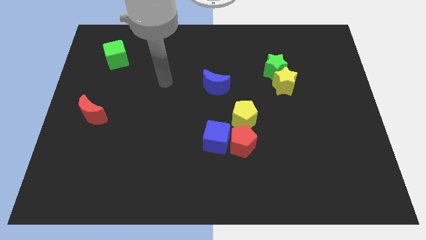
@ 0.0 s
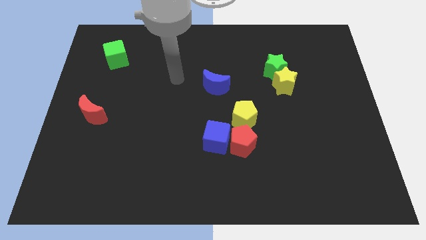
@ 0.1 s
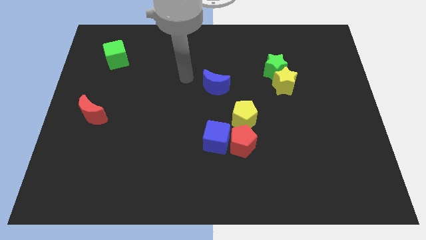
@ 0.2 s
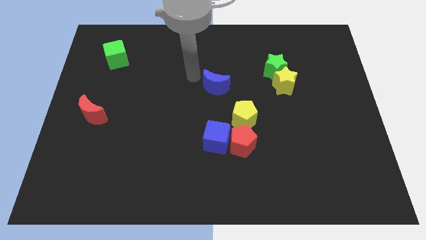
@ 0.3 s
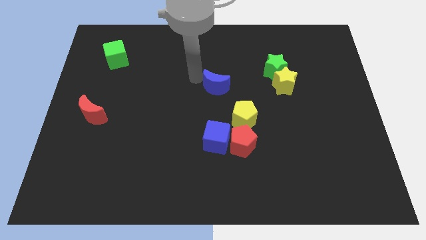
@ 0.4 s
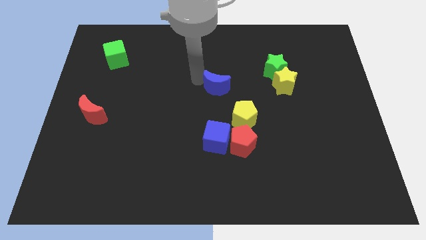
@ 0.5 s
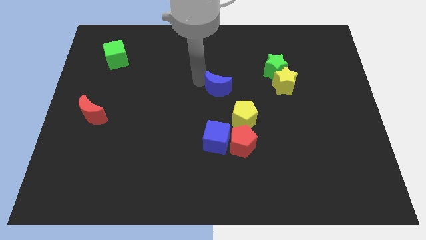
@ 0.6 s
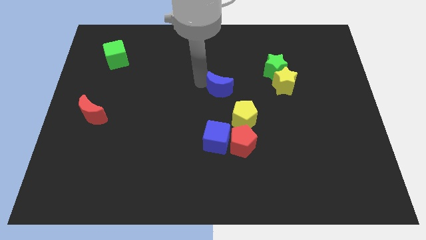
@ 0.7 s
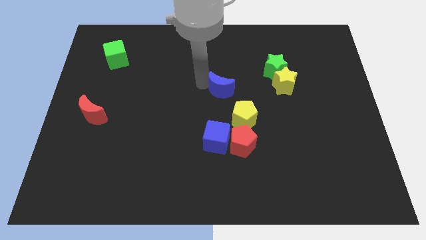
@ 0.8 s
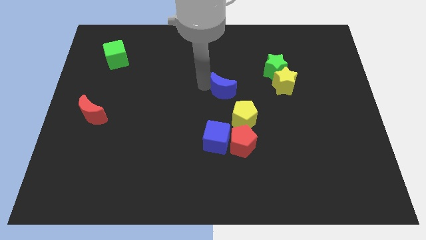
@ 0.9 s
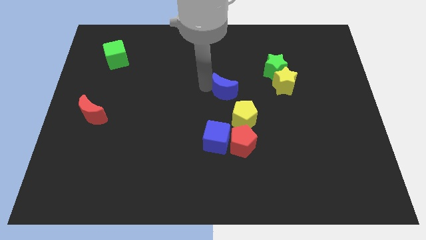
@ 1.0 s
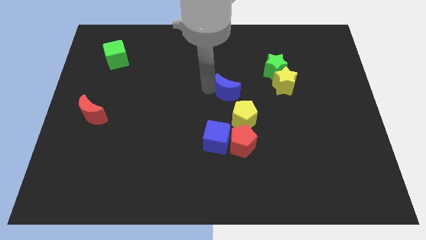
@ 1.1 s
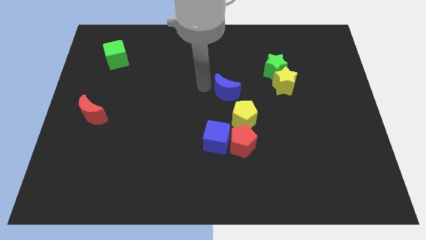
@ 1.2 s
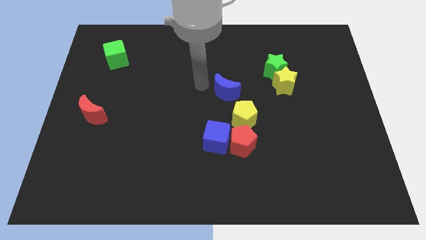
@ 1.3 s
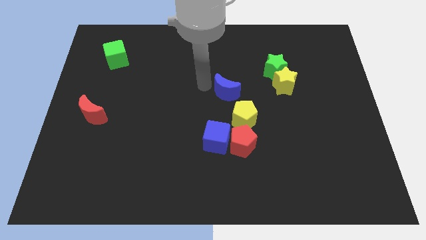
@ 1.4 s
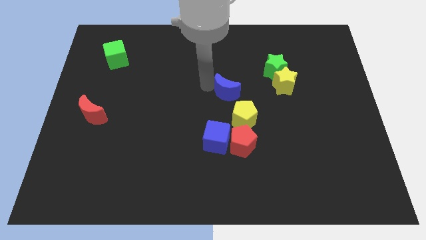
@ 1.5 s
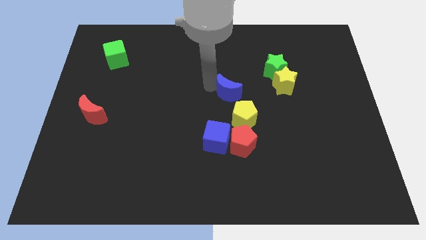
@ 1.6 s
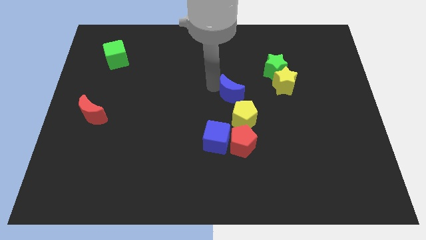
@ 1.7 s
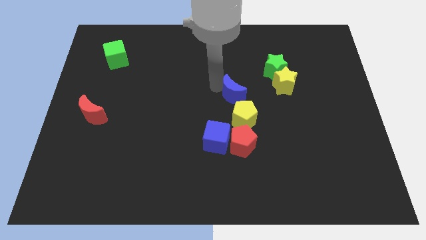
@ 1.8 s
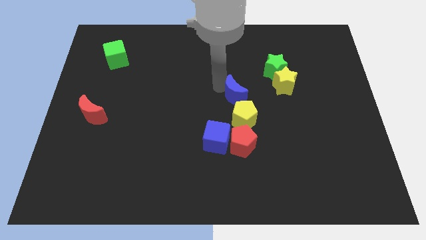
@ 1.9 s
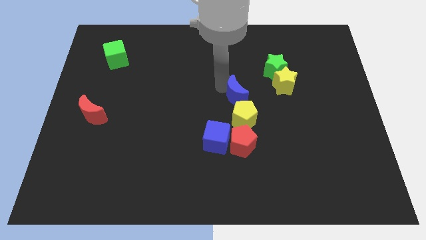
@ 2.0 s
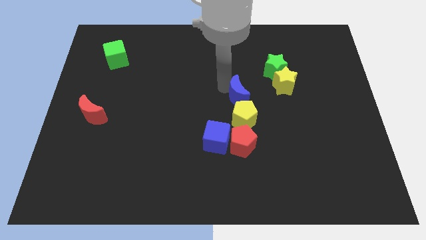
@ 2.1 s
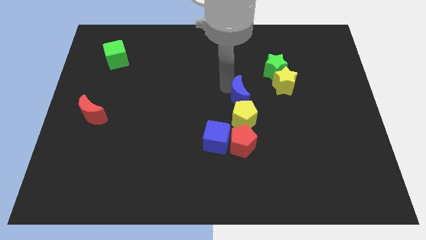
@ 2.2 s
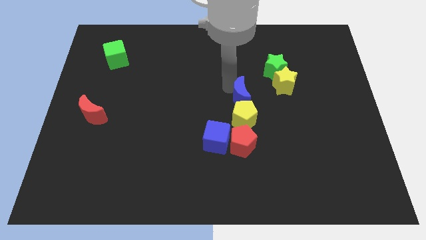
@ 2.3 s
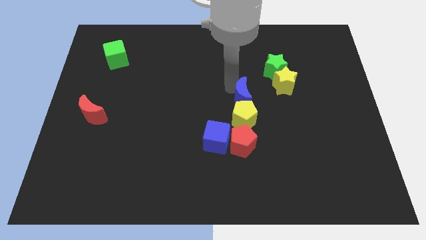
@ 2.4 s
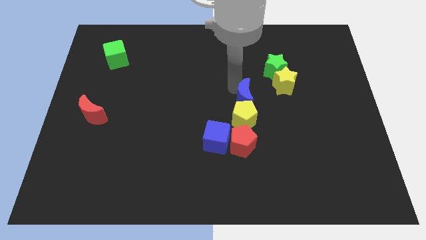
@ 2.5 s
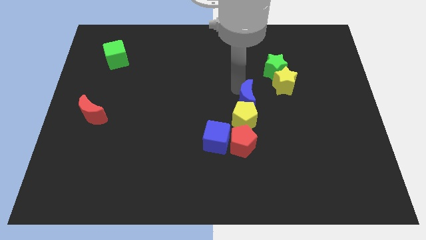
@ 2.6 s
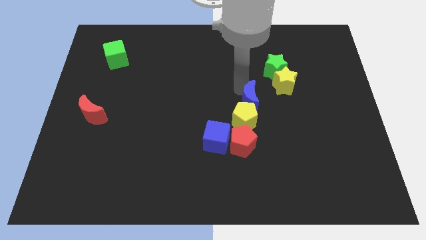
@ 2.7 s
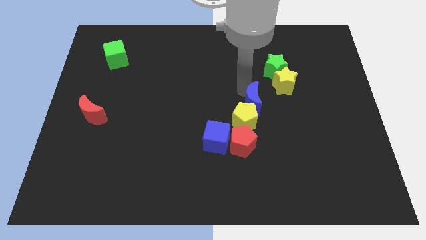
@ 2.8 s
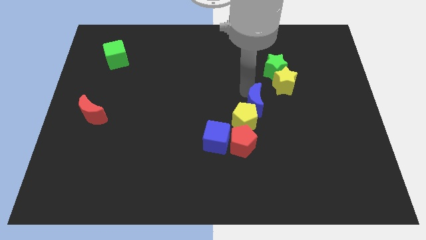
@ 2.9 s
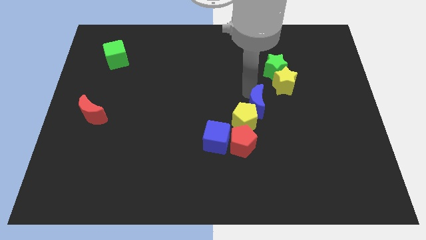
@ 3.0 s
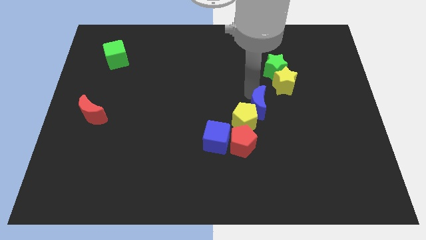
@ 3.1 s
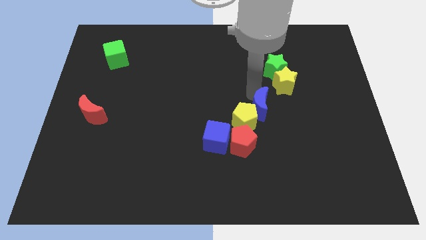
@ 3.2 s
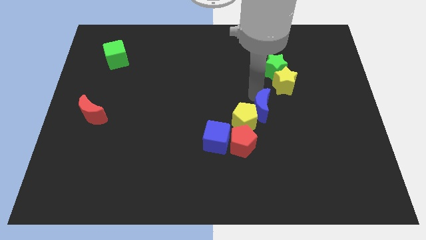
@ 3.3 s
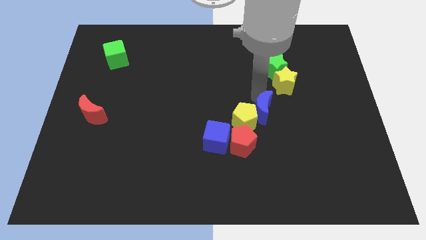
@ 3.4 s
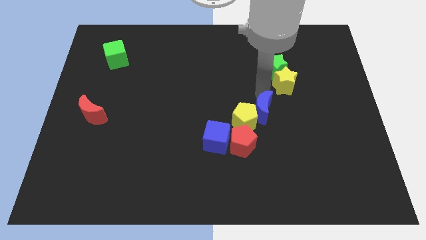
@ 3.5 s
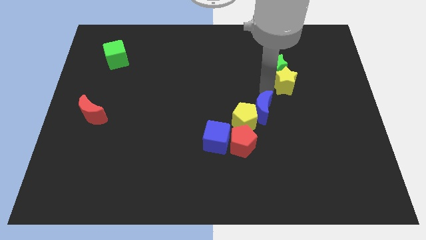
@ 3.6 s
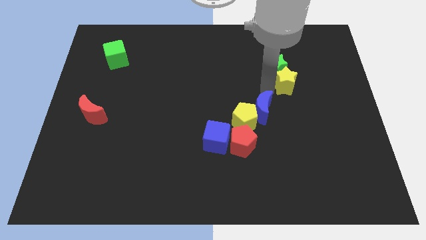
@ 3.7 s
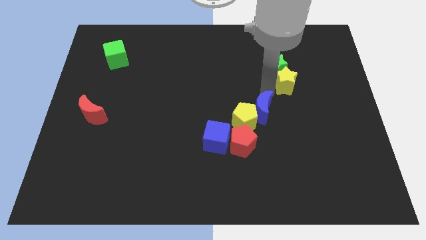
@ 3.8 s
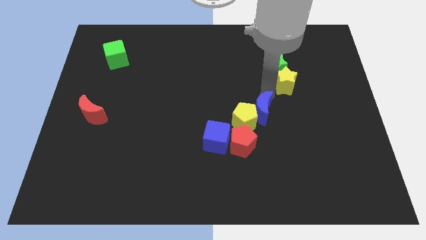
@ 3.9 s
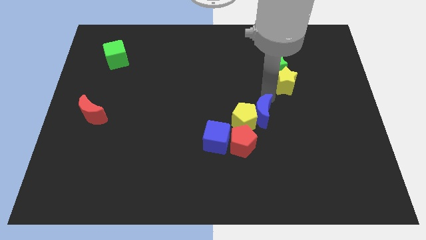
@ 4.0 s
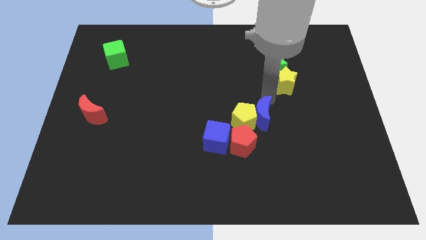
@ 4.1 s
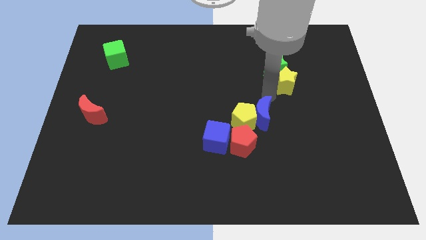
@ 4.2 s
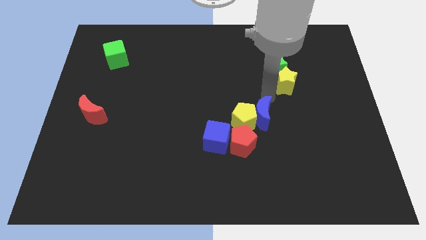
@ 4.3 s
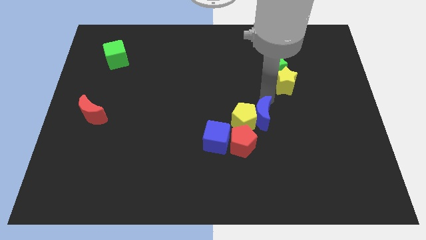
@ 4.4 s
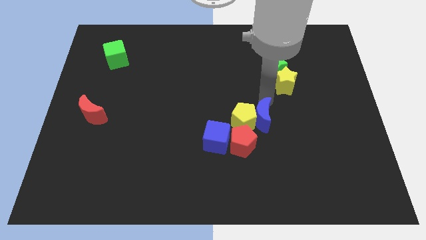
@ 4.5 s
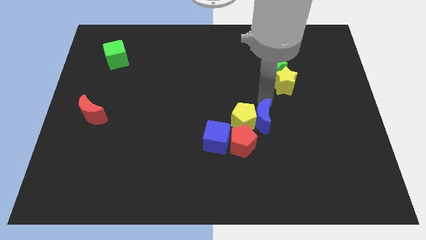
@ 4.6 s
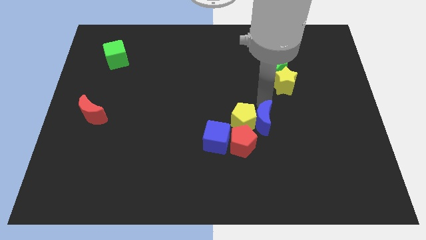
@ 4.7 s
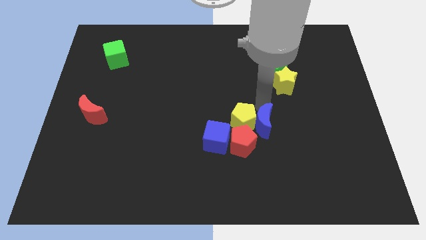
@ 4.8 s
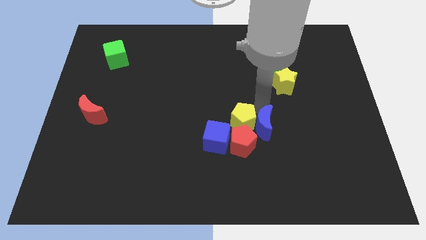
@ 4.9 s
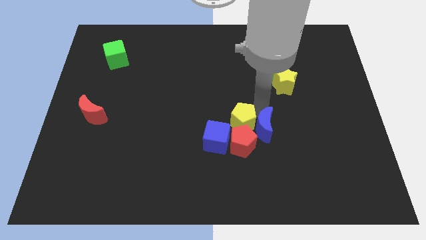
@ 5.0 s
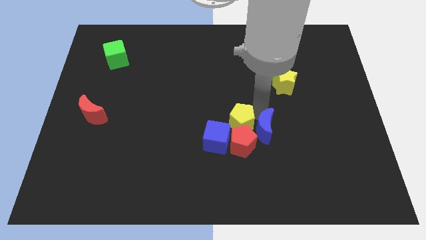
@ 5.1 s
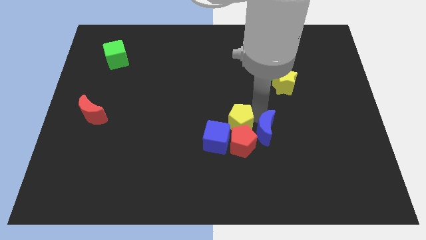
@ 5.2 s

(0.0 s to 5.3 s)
push the blue moon to the red pentagon

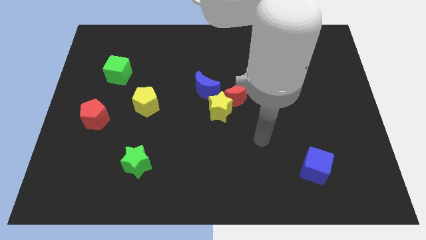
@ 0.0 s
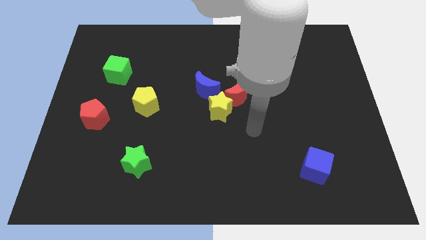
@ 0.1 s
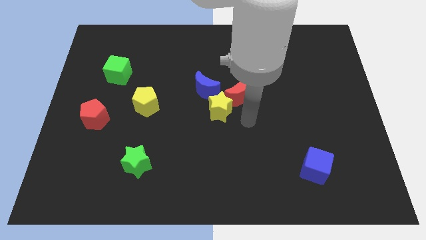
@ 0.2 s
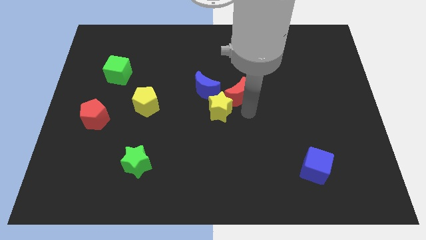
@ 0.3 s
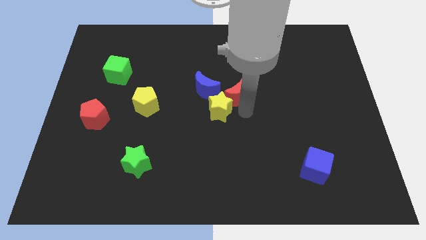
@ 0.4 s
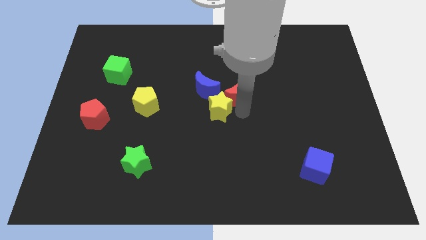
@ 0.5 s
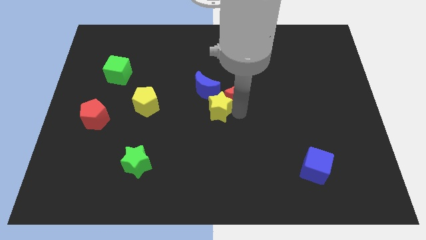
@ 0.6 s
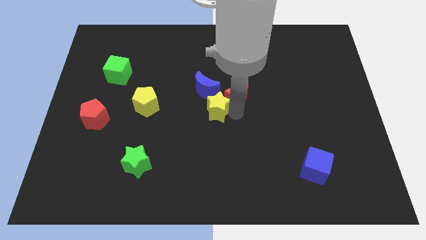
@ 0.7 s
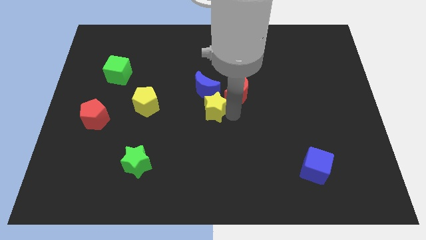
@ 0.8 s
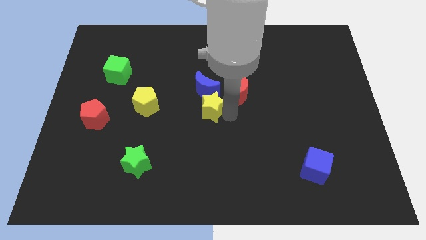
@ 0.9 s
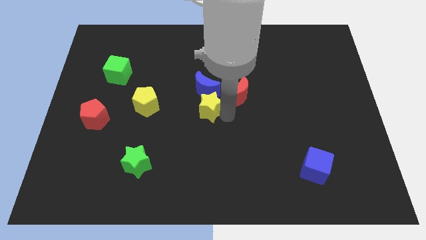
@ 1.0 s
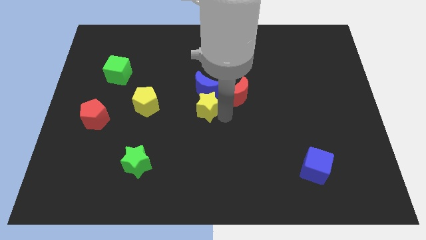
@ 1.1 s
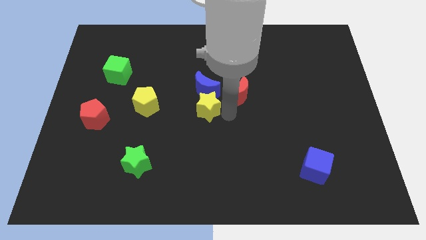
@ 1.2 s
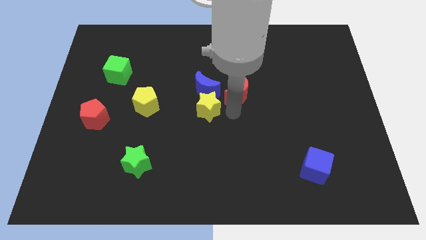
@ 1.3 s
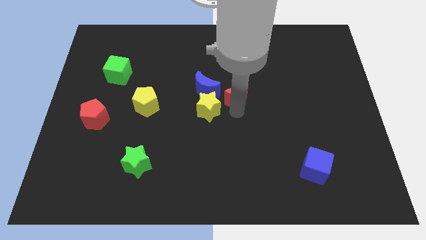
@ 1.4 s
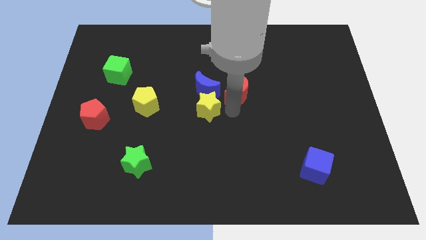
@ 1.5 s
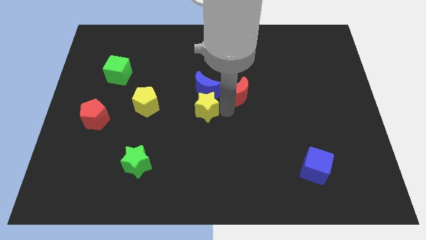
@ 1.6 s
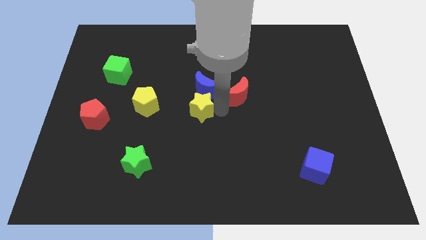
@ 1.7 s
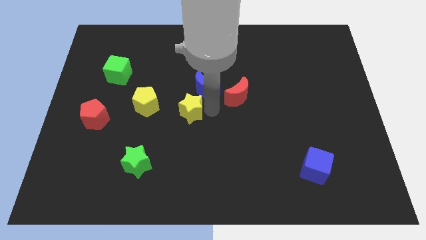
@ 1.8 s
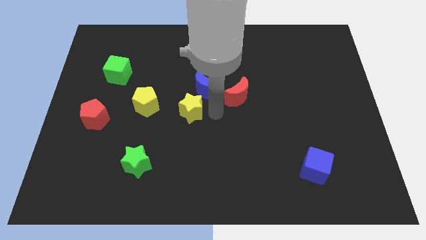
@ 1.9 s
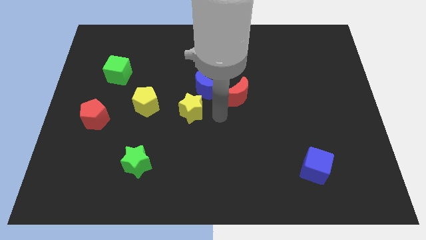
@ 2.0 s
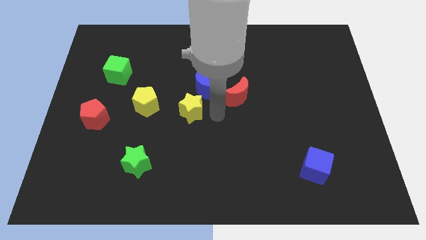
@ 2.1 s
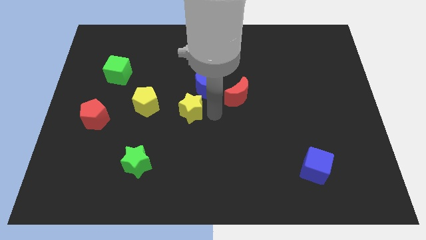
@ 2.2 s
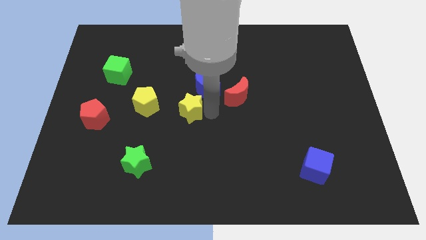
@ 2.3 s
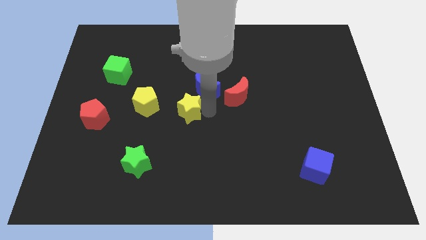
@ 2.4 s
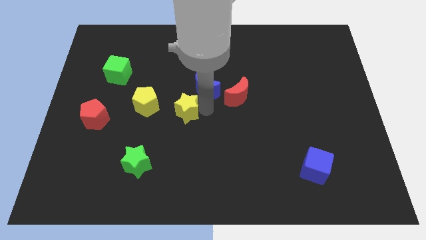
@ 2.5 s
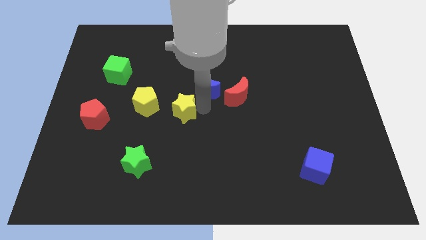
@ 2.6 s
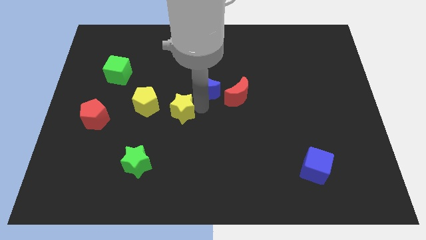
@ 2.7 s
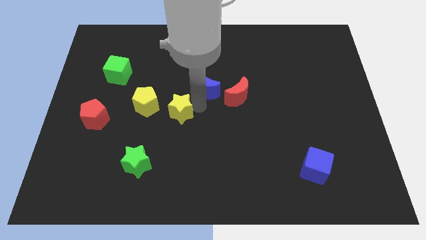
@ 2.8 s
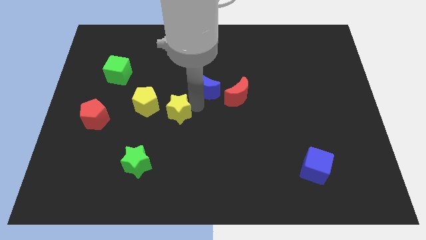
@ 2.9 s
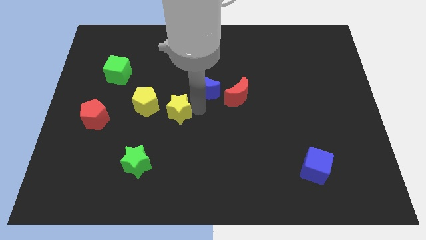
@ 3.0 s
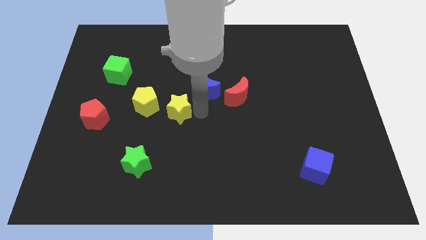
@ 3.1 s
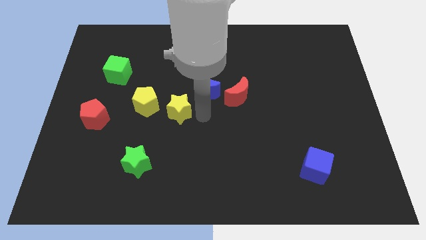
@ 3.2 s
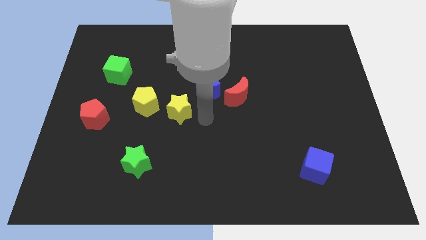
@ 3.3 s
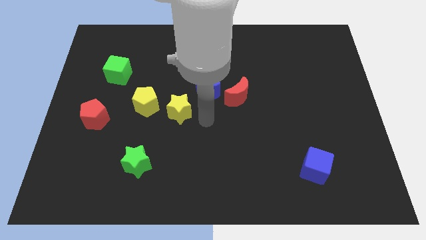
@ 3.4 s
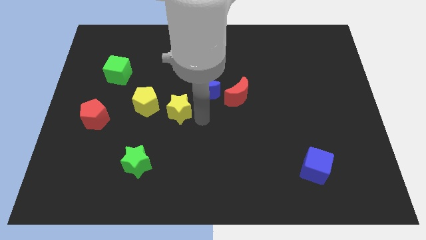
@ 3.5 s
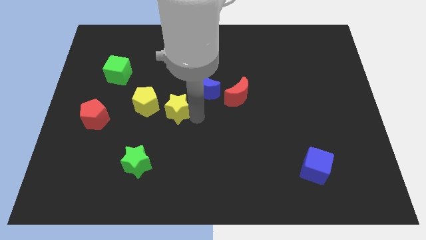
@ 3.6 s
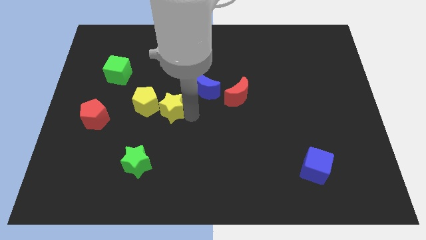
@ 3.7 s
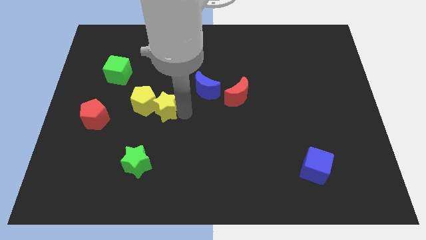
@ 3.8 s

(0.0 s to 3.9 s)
slide the yellow star to the yellow pentagon
